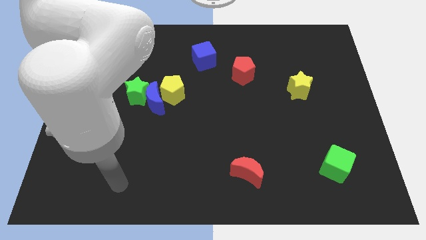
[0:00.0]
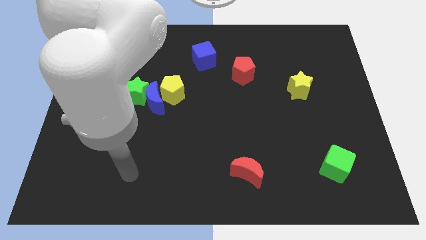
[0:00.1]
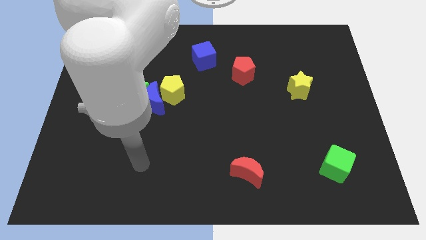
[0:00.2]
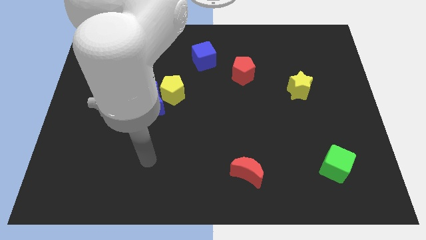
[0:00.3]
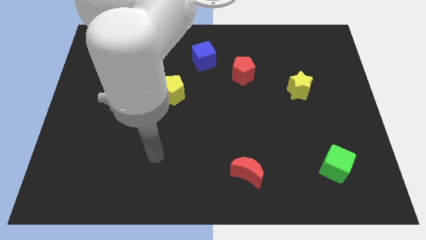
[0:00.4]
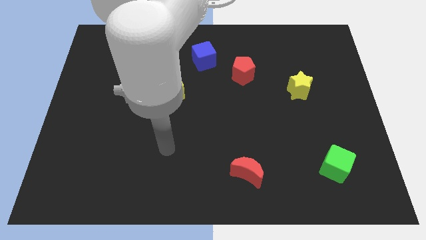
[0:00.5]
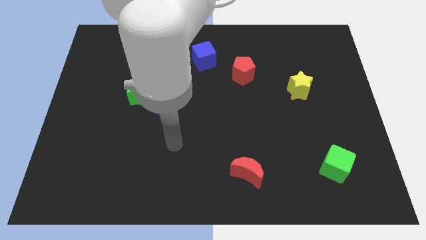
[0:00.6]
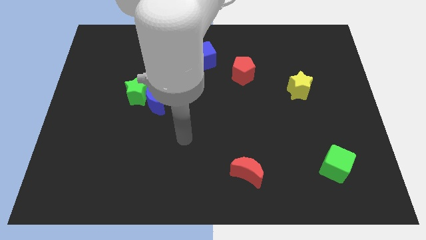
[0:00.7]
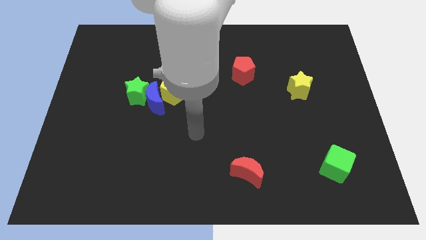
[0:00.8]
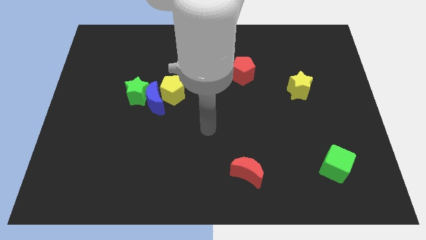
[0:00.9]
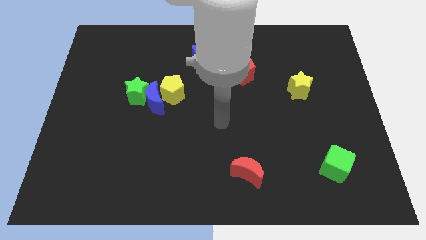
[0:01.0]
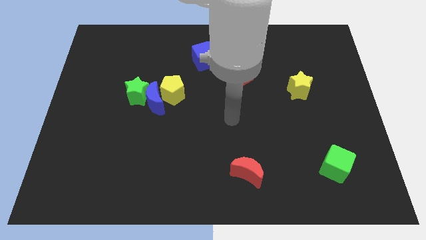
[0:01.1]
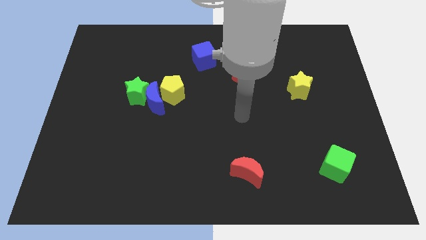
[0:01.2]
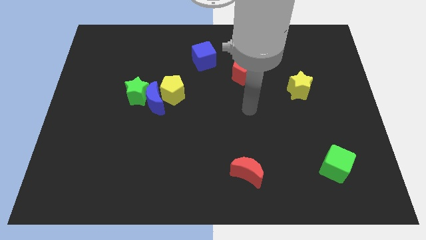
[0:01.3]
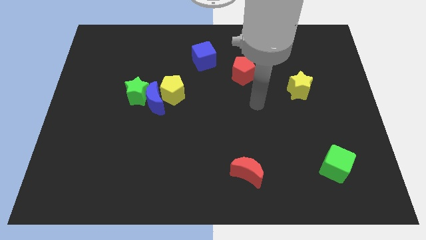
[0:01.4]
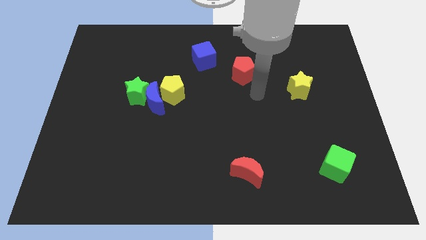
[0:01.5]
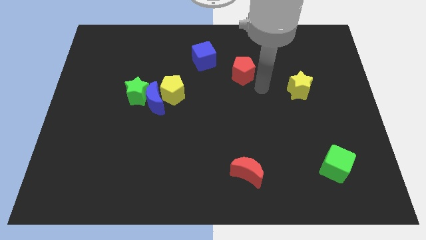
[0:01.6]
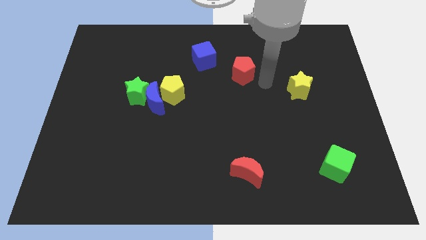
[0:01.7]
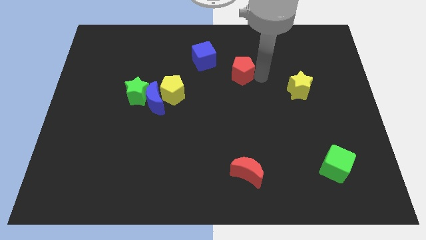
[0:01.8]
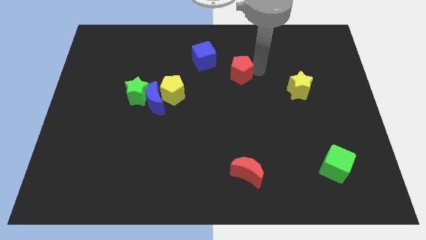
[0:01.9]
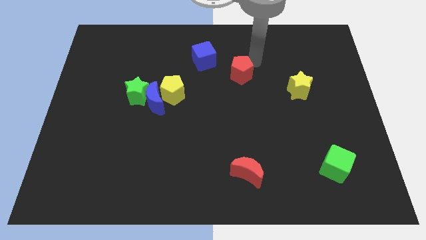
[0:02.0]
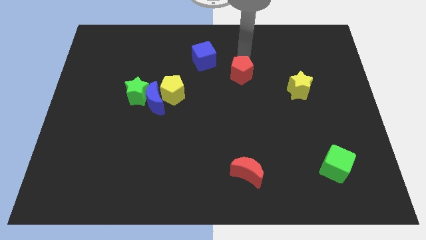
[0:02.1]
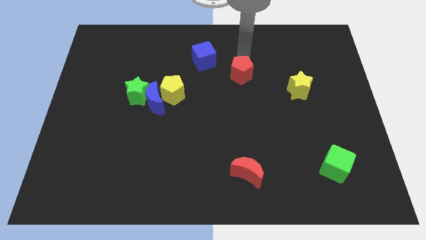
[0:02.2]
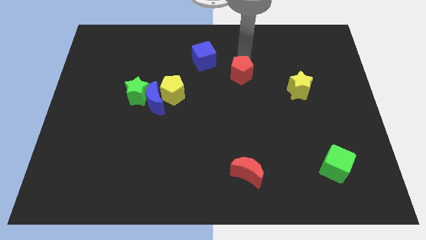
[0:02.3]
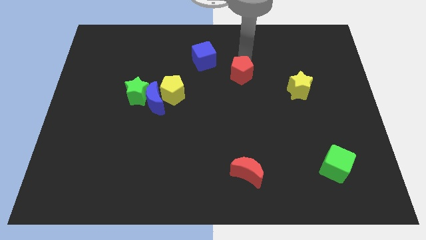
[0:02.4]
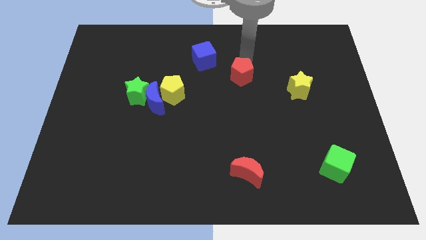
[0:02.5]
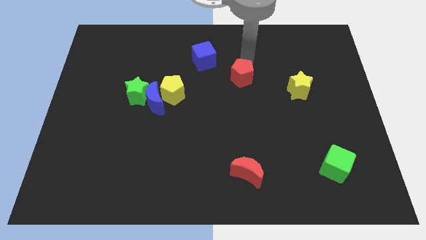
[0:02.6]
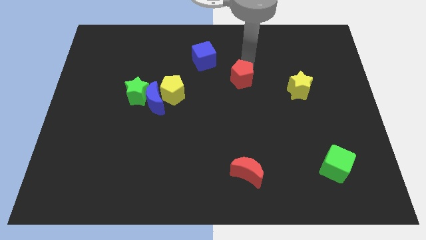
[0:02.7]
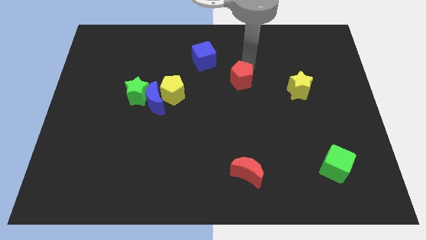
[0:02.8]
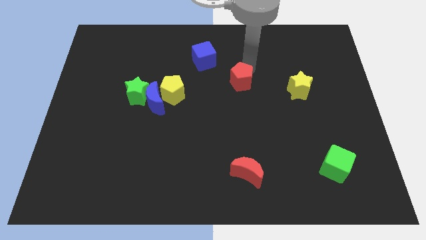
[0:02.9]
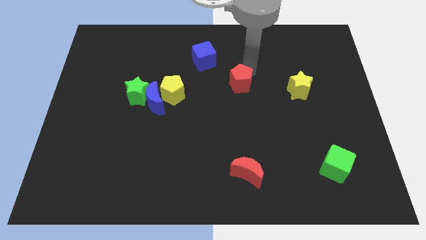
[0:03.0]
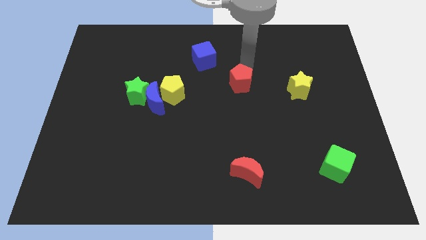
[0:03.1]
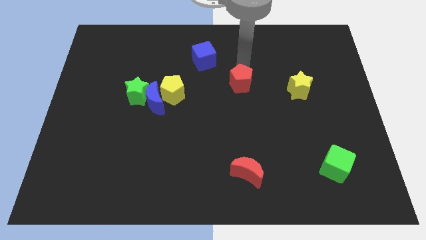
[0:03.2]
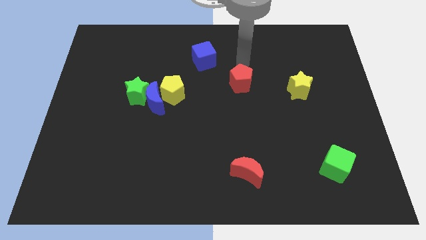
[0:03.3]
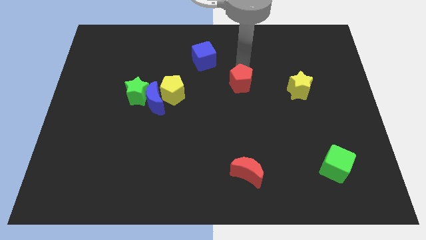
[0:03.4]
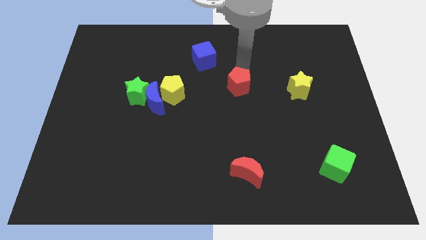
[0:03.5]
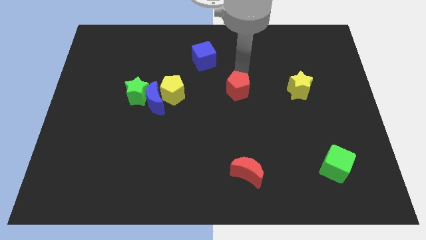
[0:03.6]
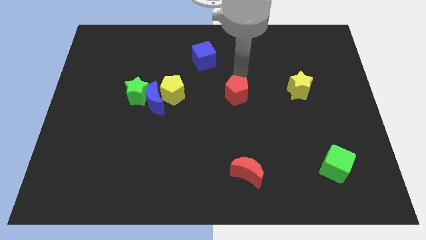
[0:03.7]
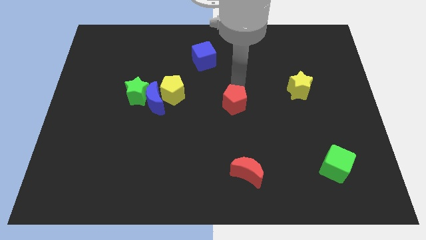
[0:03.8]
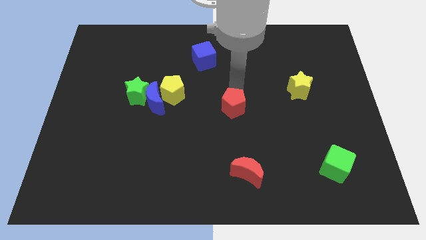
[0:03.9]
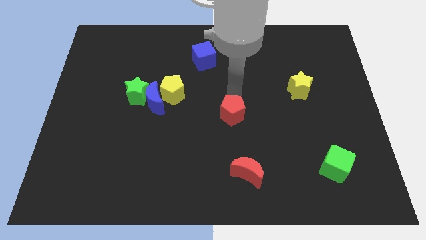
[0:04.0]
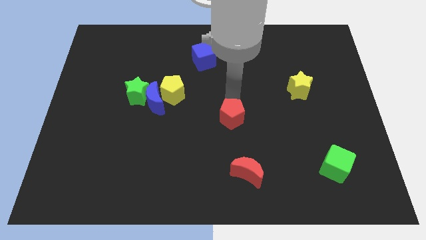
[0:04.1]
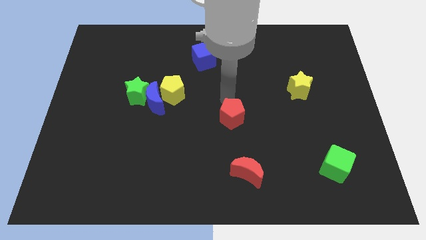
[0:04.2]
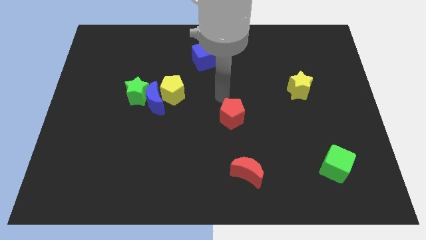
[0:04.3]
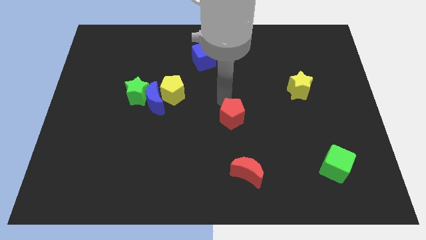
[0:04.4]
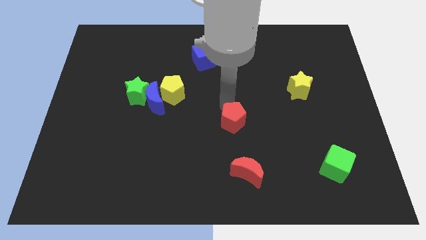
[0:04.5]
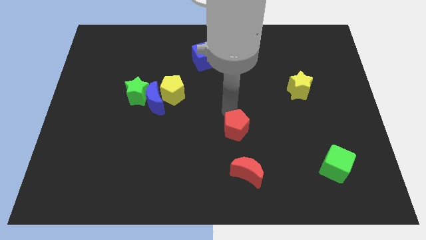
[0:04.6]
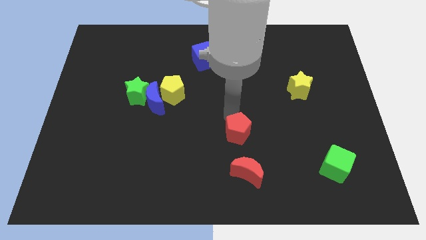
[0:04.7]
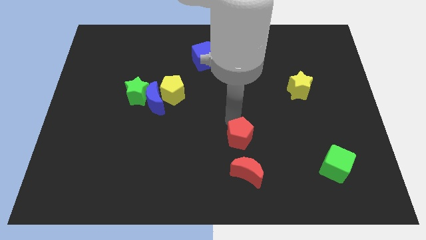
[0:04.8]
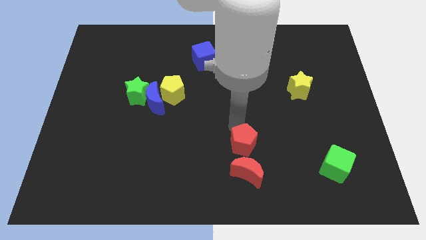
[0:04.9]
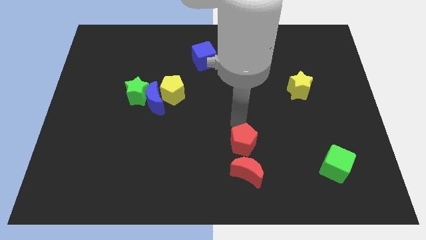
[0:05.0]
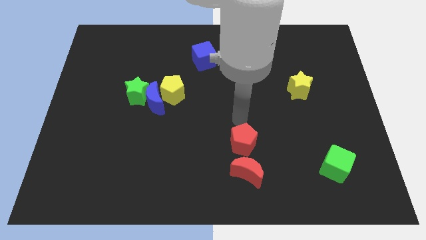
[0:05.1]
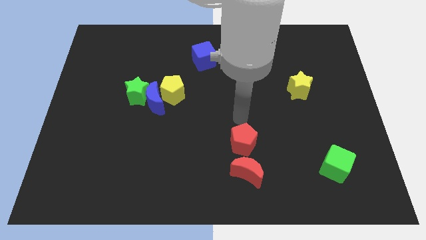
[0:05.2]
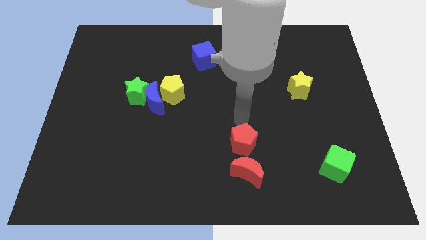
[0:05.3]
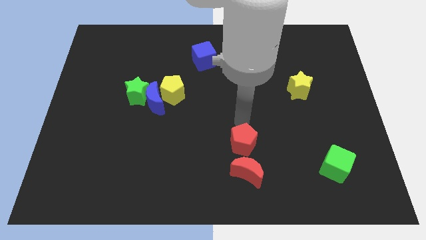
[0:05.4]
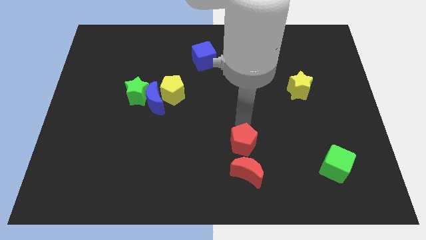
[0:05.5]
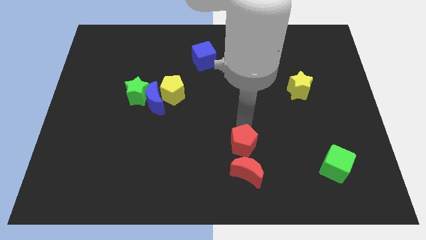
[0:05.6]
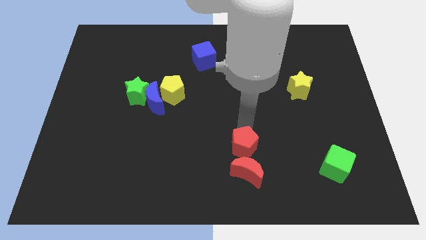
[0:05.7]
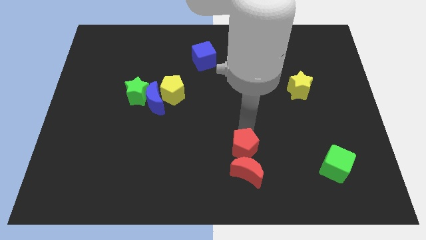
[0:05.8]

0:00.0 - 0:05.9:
put the red pentagon next to the red moon

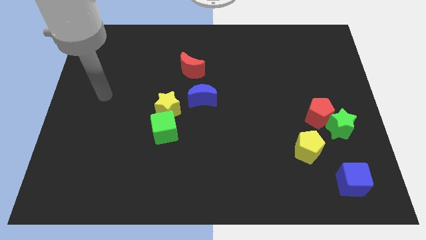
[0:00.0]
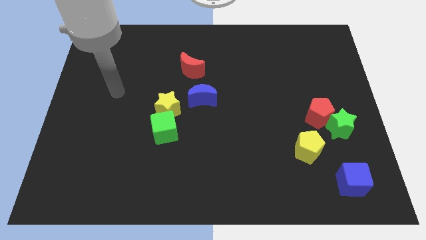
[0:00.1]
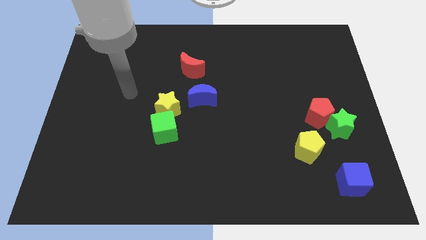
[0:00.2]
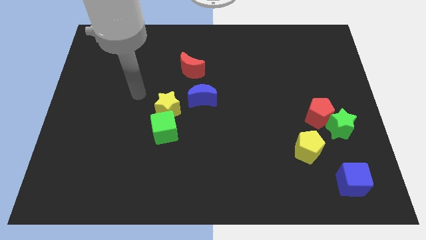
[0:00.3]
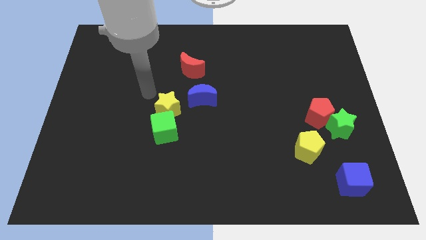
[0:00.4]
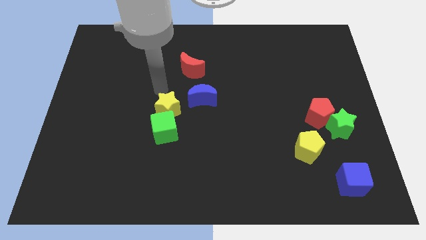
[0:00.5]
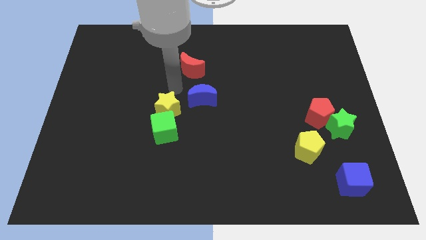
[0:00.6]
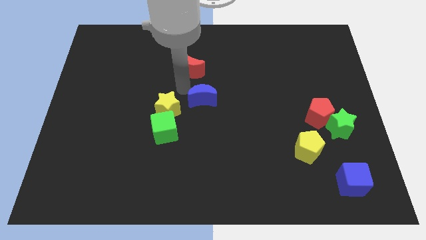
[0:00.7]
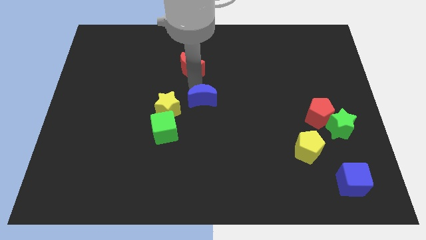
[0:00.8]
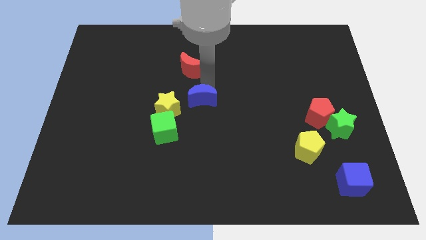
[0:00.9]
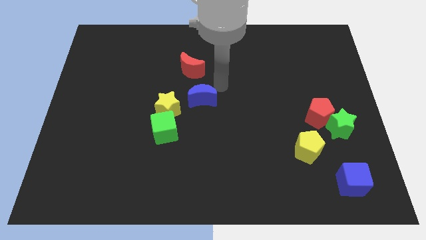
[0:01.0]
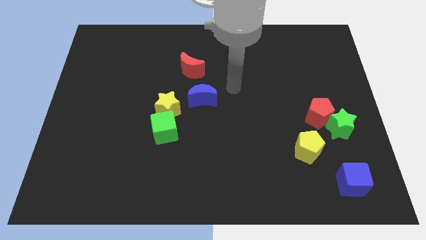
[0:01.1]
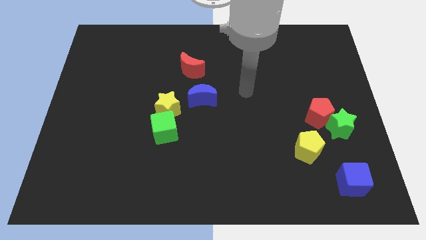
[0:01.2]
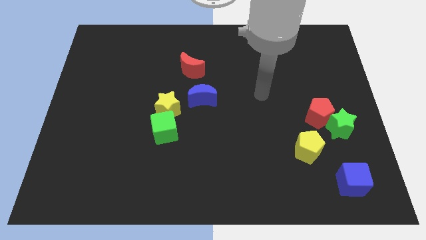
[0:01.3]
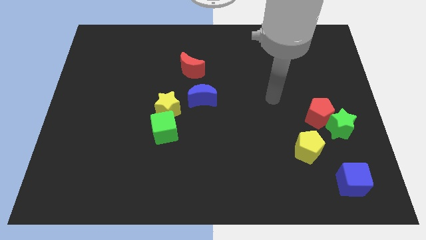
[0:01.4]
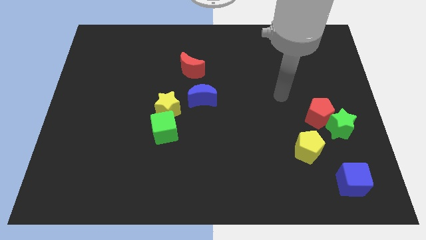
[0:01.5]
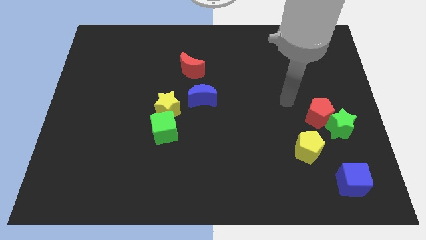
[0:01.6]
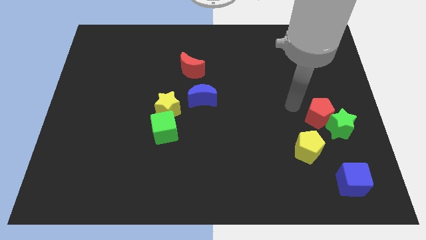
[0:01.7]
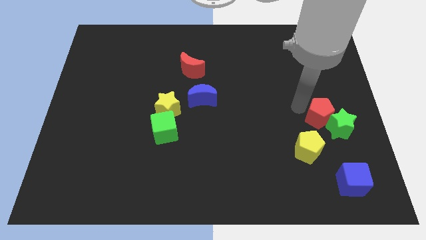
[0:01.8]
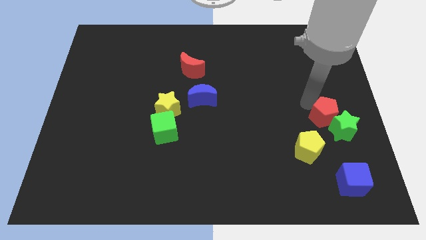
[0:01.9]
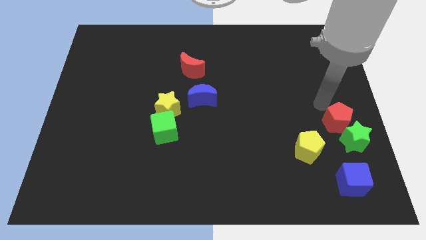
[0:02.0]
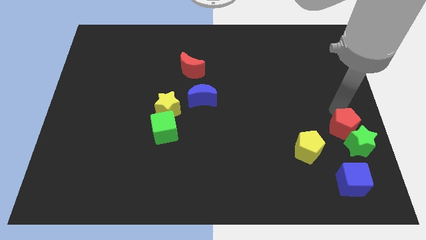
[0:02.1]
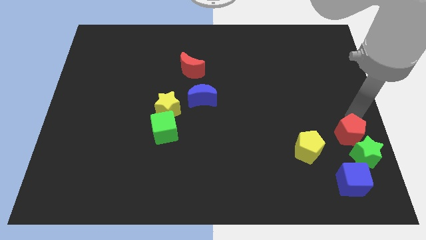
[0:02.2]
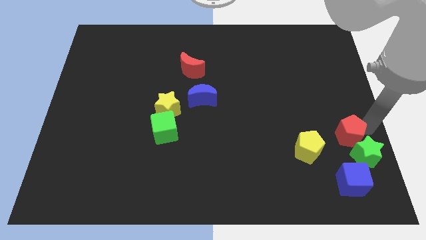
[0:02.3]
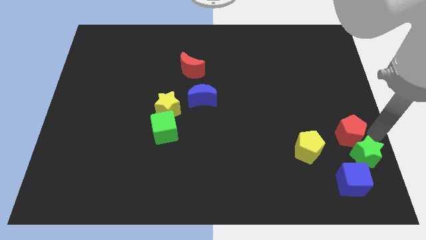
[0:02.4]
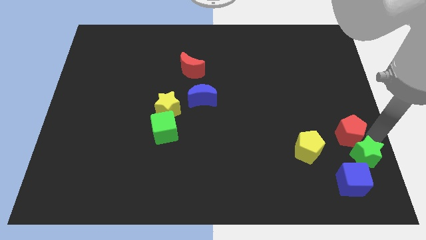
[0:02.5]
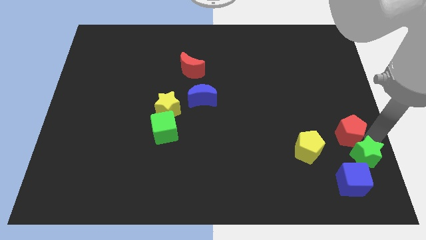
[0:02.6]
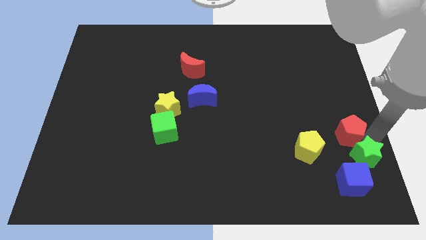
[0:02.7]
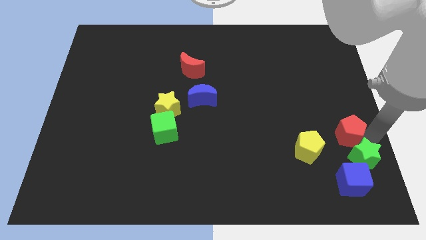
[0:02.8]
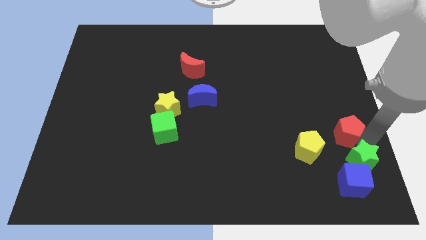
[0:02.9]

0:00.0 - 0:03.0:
slide the green star to the blue cube
